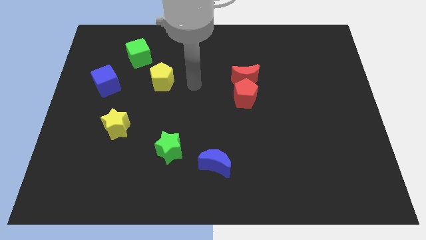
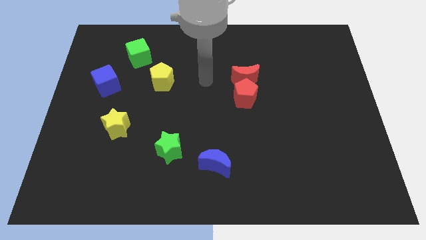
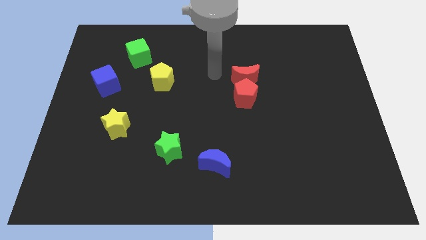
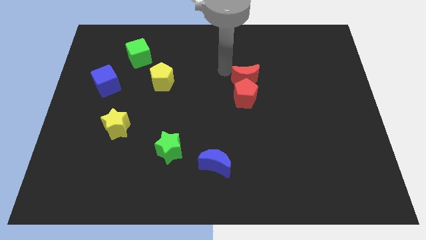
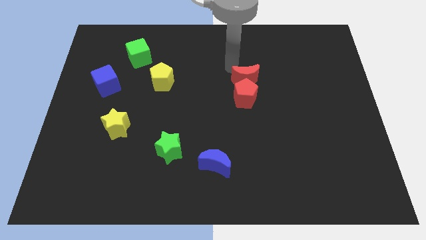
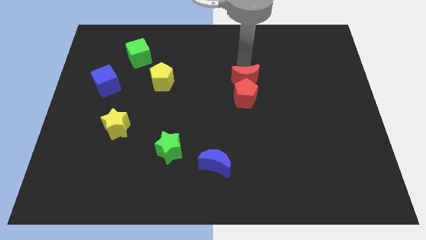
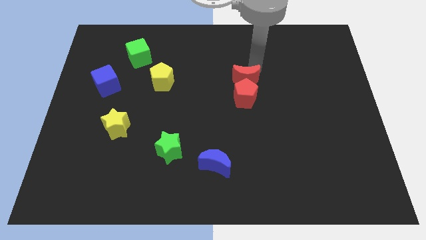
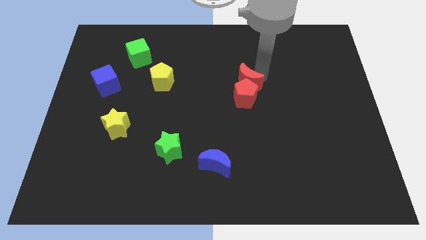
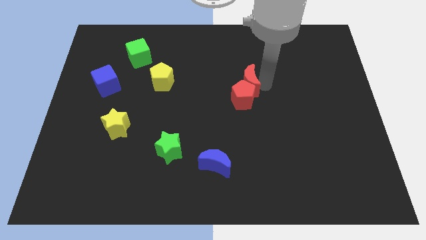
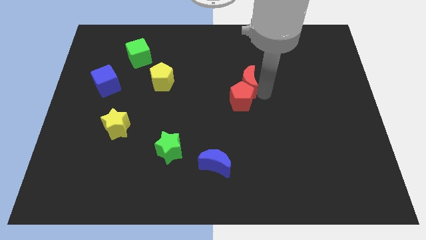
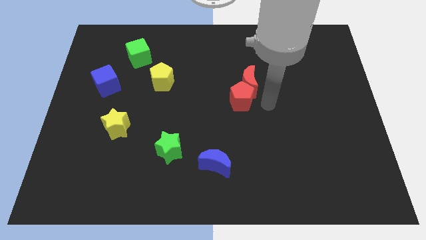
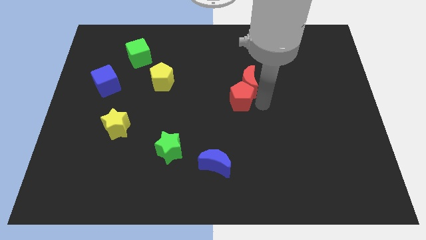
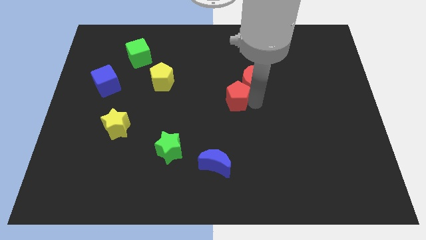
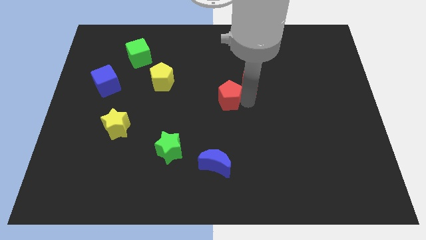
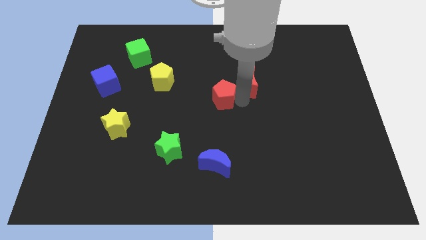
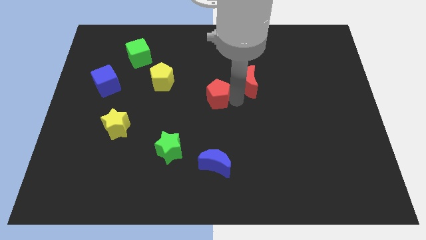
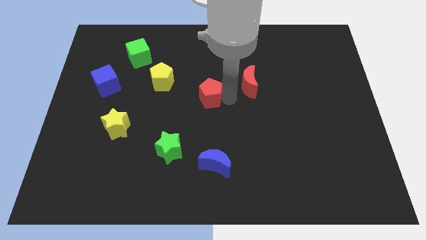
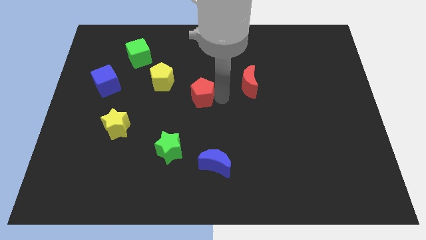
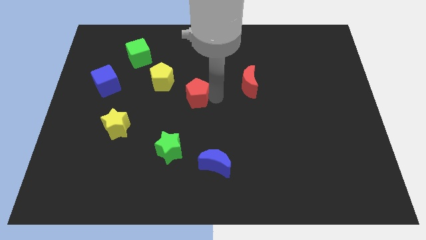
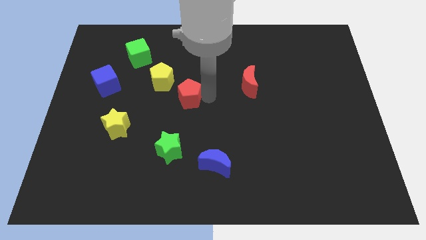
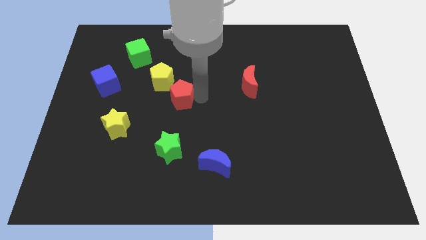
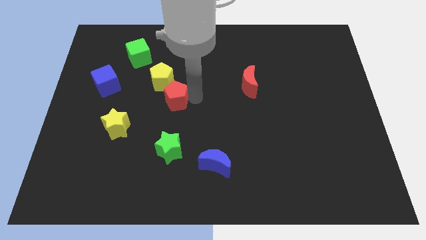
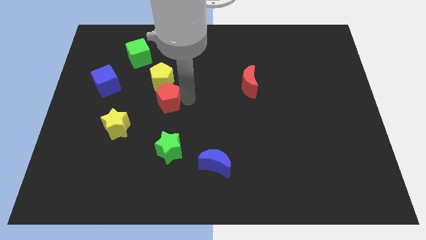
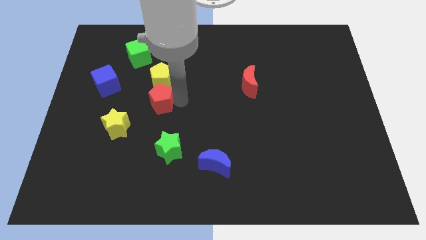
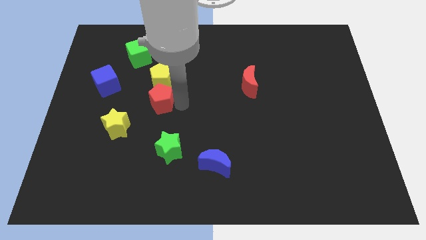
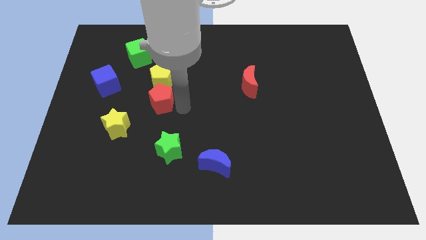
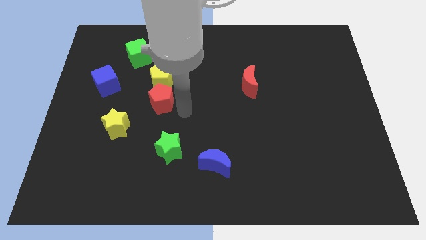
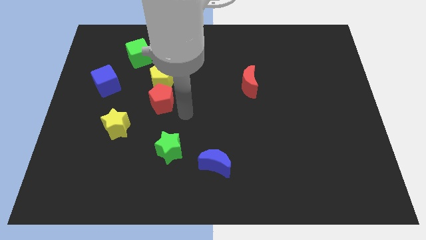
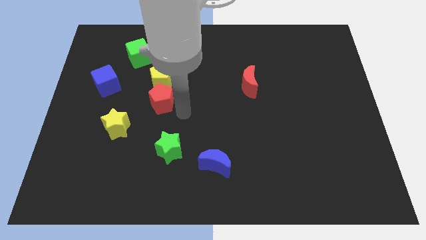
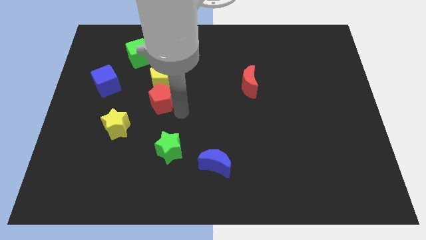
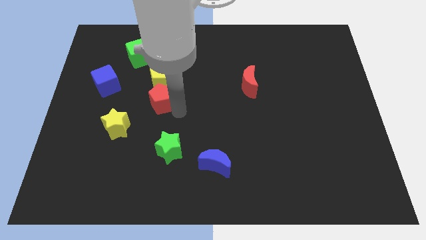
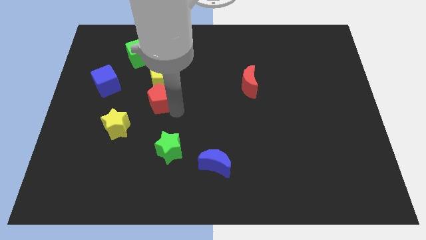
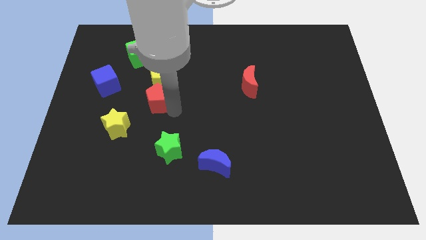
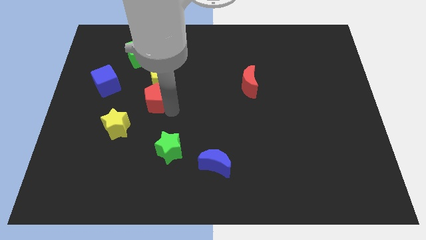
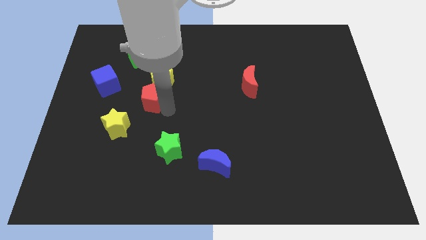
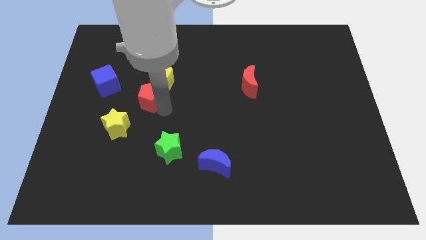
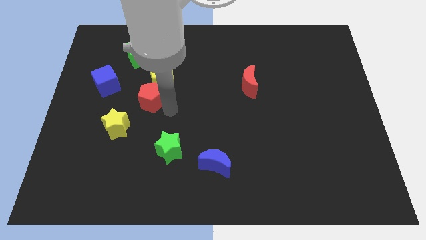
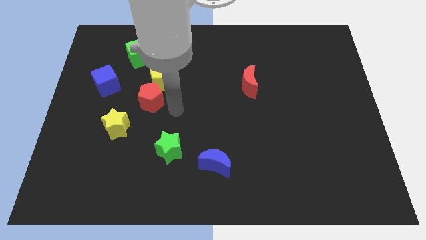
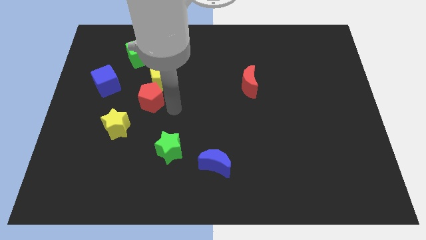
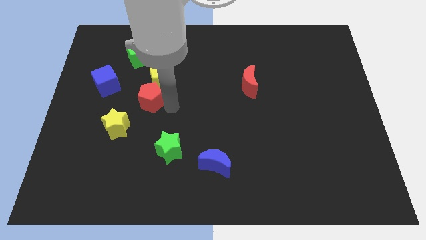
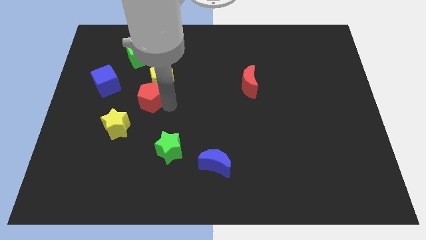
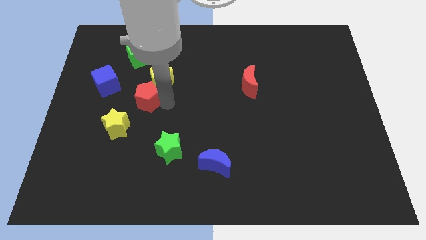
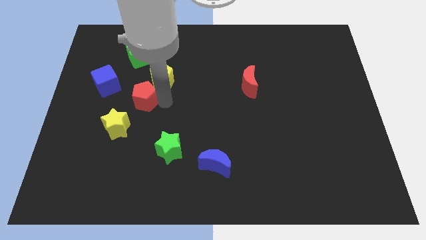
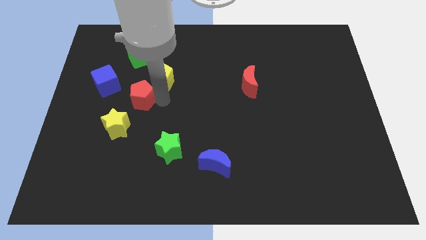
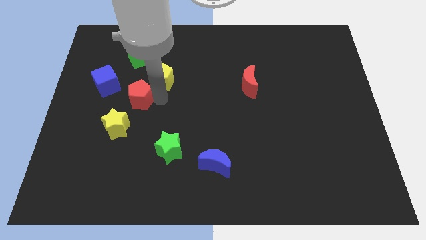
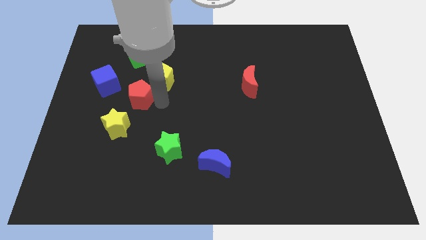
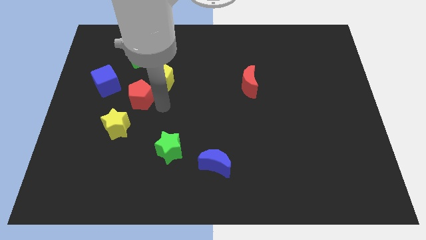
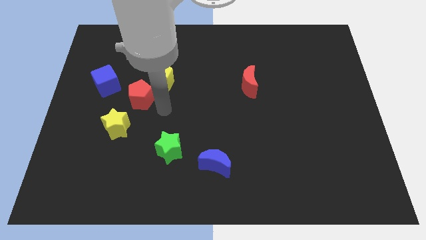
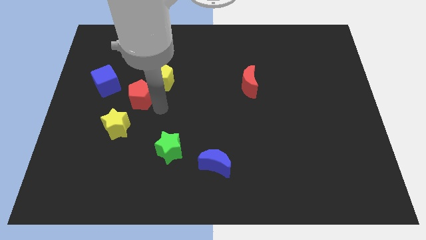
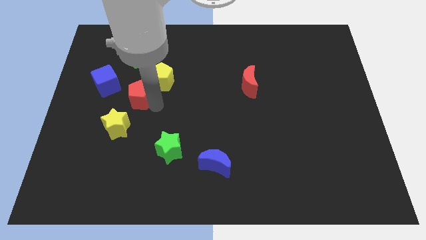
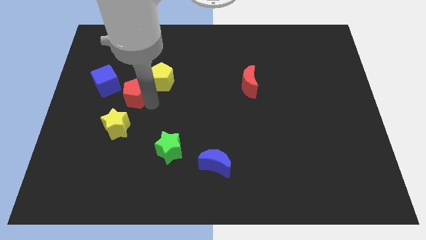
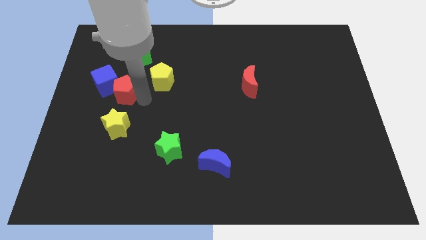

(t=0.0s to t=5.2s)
put the red pentagon next to the blue cube
